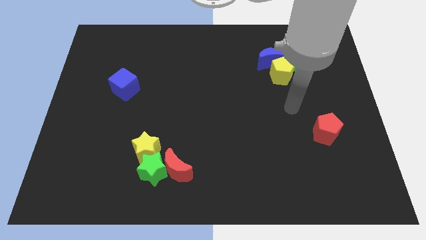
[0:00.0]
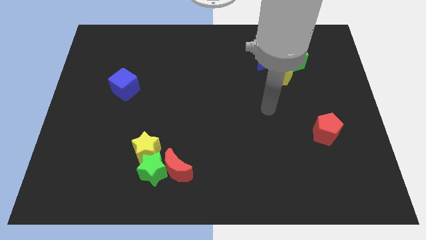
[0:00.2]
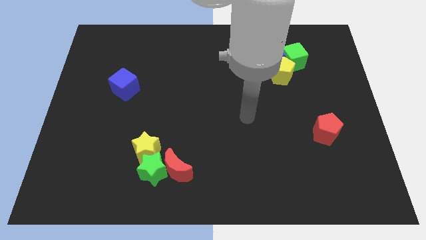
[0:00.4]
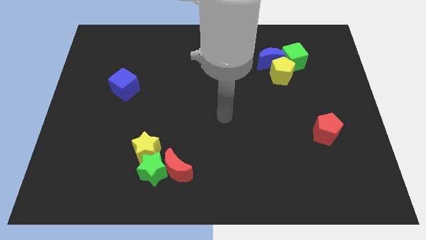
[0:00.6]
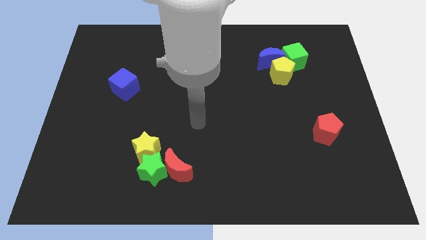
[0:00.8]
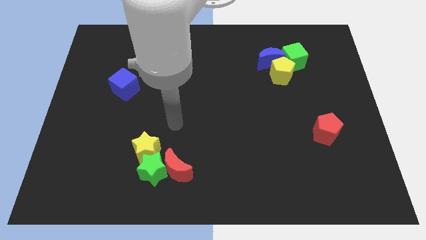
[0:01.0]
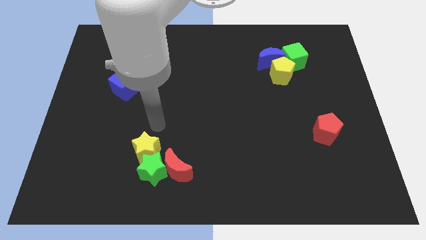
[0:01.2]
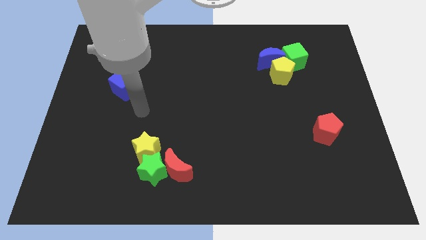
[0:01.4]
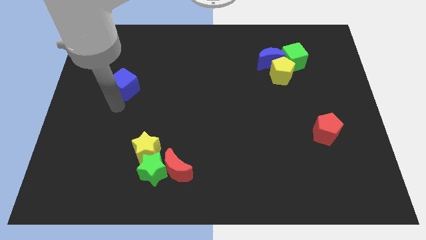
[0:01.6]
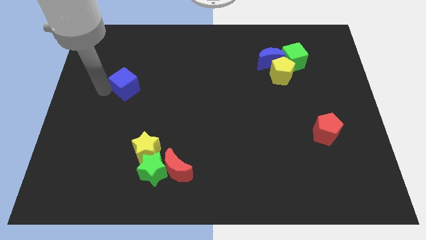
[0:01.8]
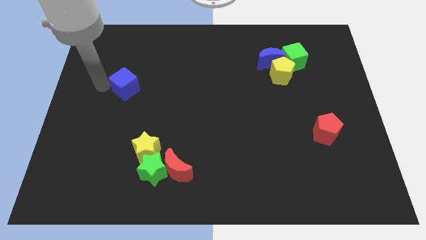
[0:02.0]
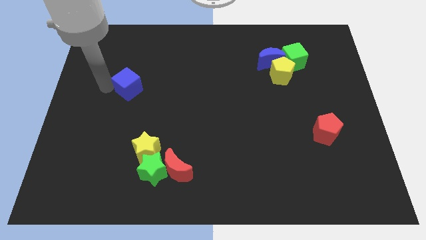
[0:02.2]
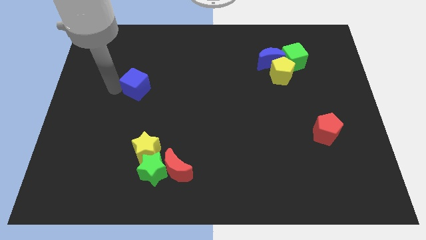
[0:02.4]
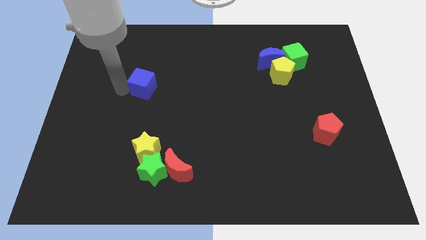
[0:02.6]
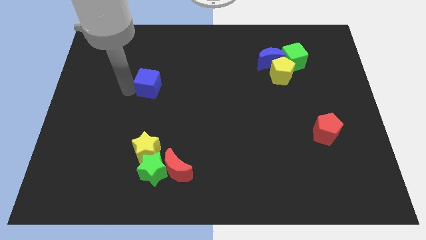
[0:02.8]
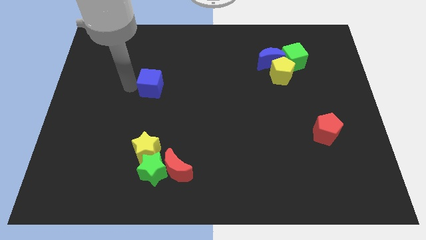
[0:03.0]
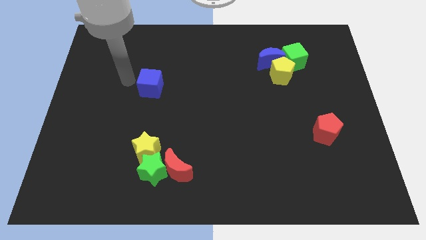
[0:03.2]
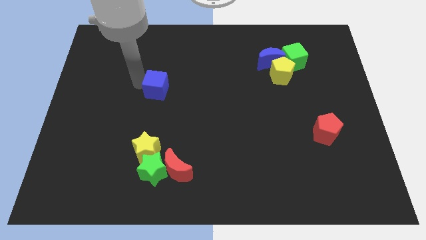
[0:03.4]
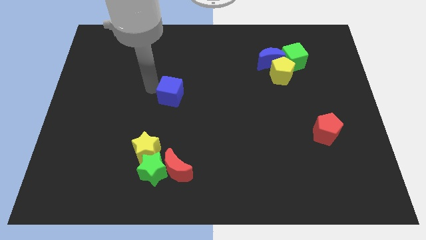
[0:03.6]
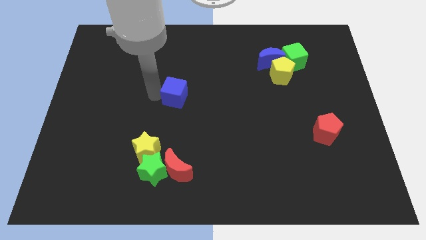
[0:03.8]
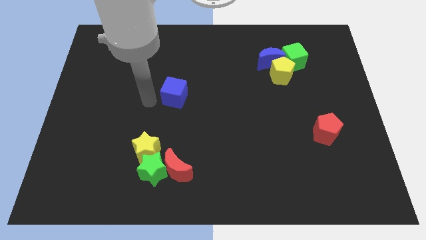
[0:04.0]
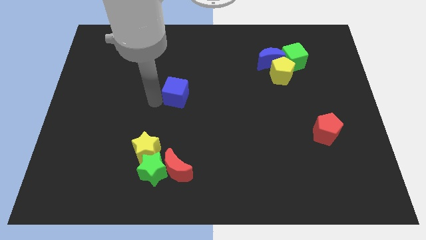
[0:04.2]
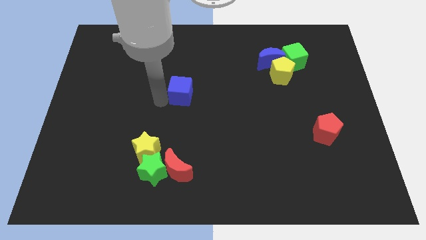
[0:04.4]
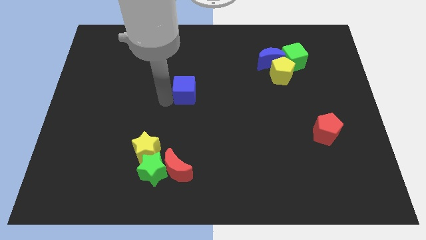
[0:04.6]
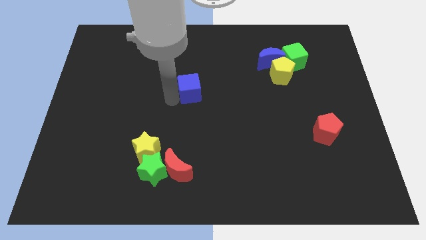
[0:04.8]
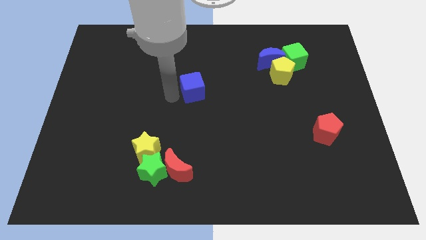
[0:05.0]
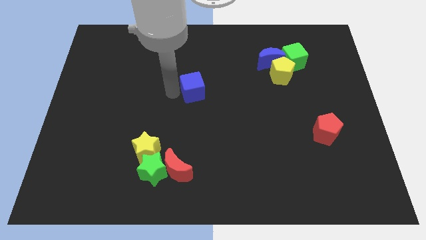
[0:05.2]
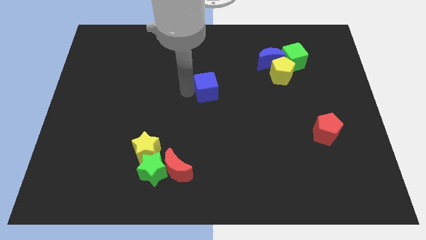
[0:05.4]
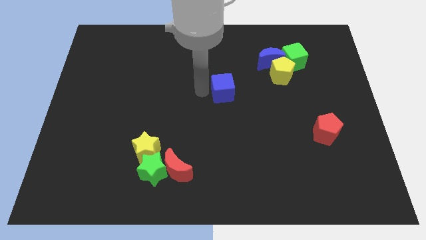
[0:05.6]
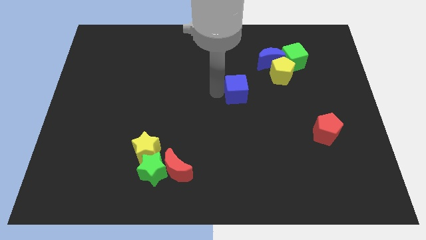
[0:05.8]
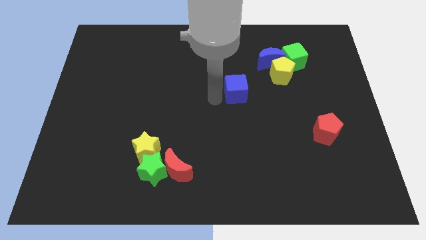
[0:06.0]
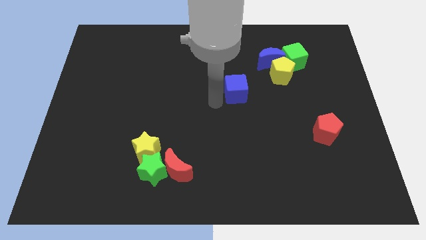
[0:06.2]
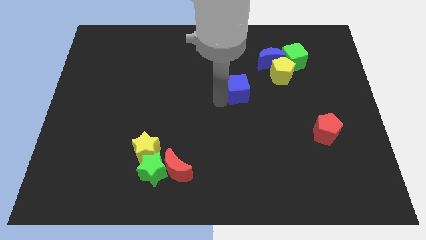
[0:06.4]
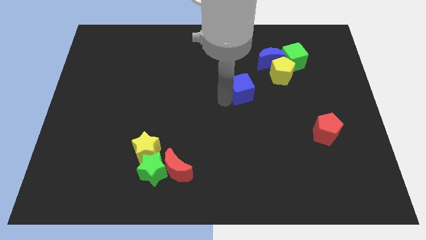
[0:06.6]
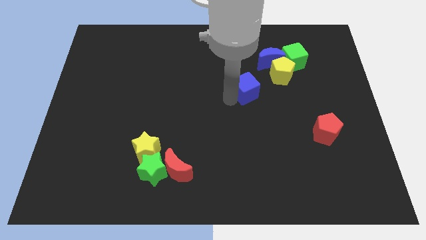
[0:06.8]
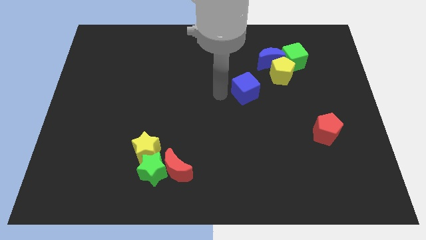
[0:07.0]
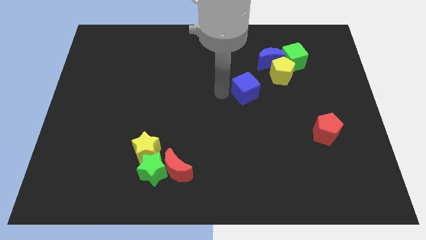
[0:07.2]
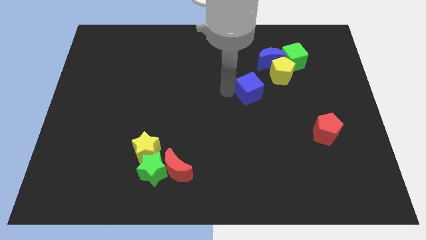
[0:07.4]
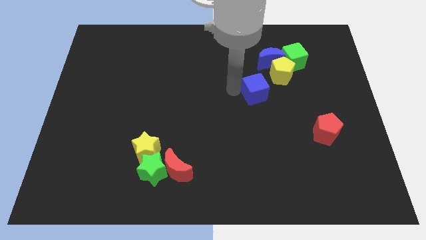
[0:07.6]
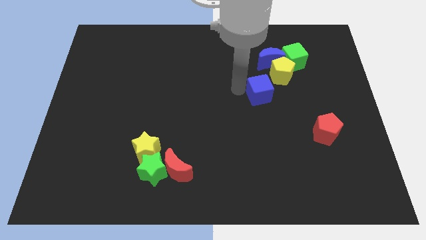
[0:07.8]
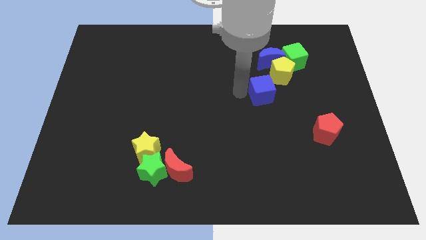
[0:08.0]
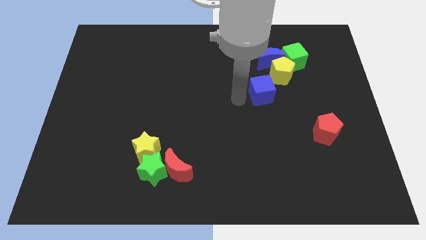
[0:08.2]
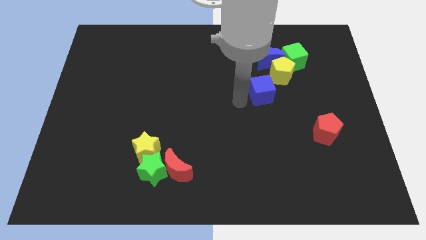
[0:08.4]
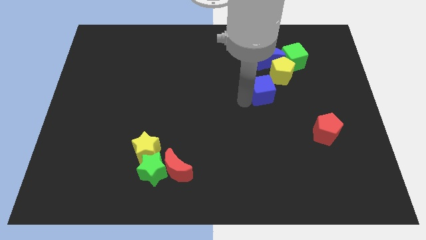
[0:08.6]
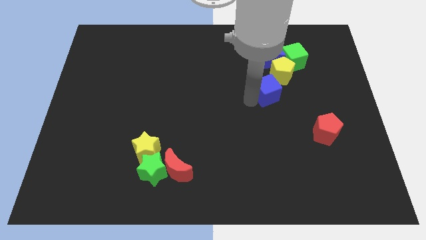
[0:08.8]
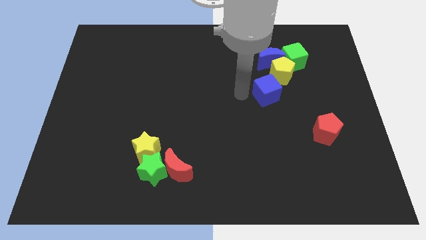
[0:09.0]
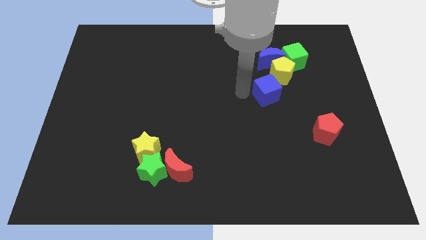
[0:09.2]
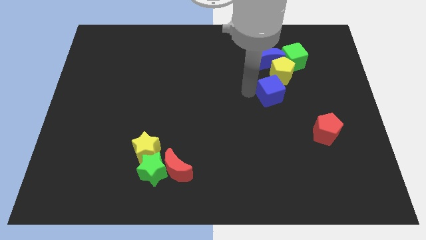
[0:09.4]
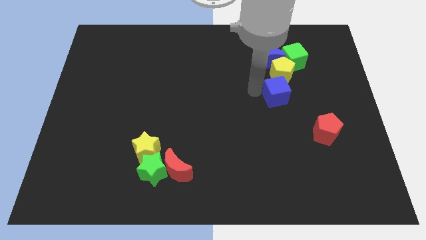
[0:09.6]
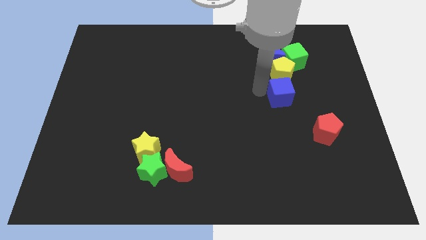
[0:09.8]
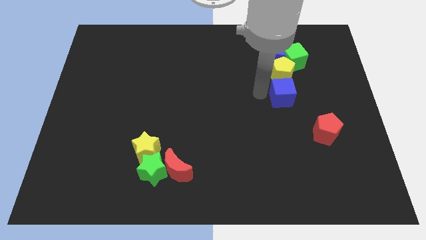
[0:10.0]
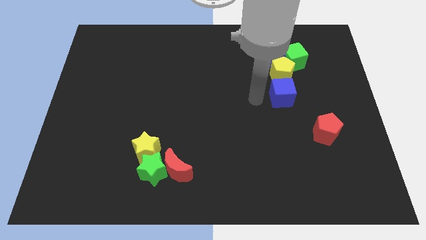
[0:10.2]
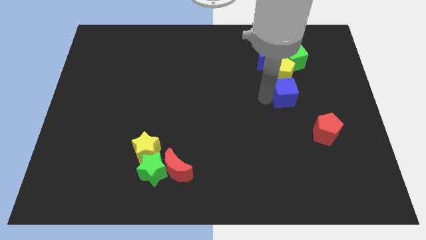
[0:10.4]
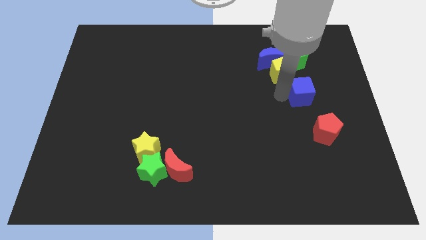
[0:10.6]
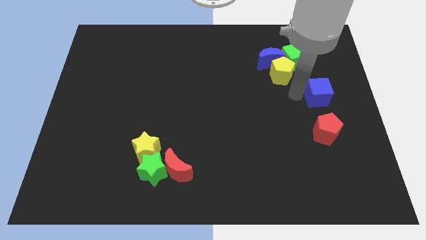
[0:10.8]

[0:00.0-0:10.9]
put the blue cube to the right side

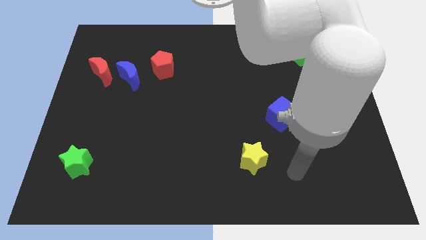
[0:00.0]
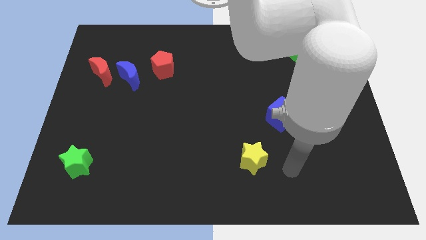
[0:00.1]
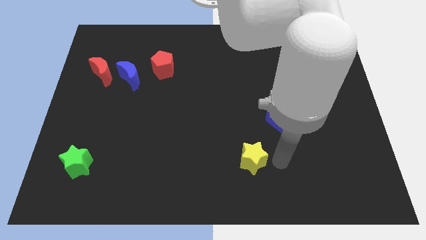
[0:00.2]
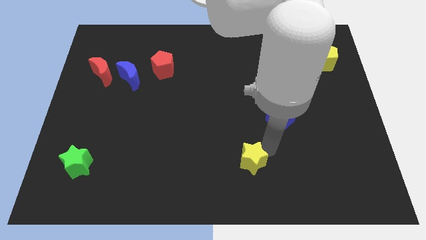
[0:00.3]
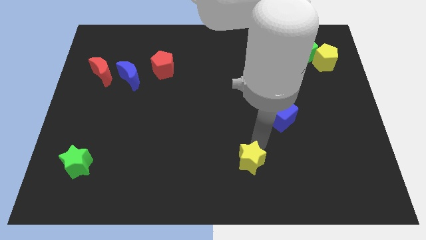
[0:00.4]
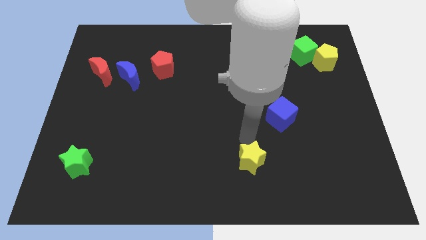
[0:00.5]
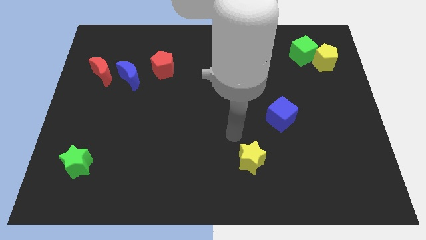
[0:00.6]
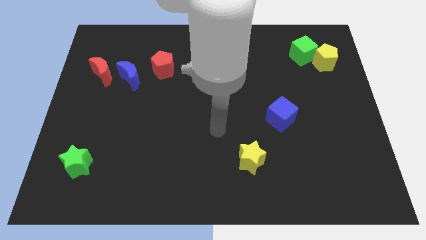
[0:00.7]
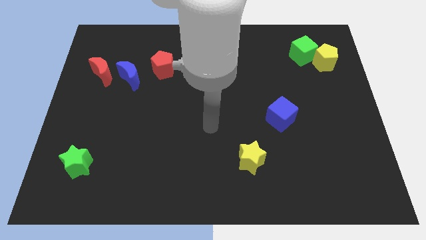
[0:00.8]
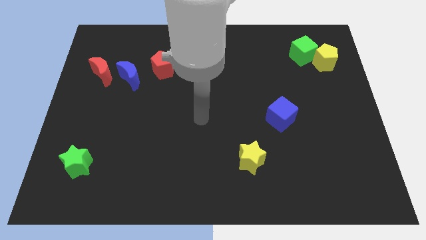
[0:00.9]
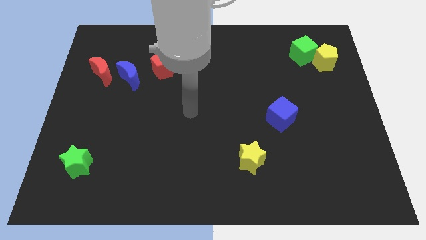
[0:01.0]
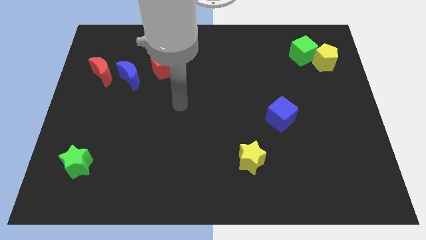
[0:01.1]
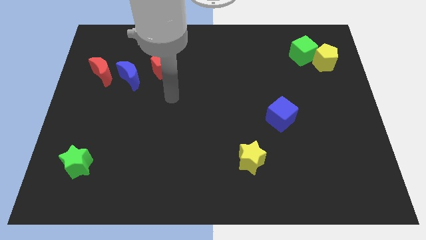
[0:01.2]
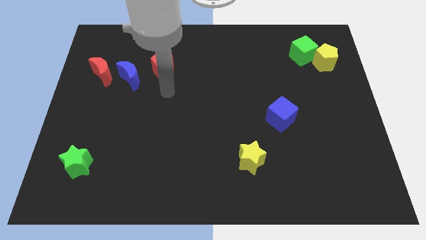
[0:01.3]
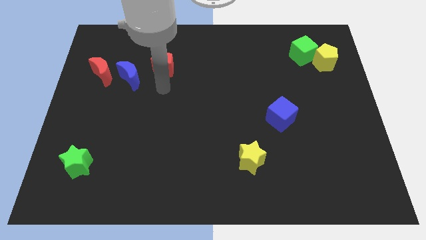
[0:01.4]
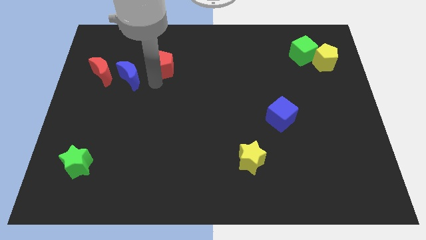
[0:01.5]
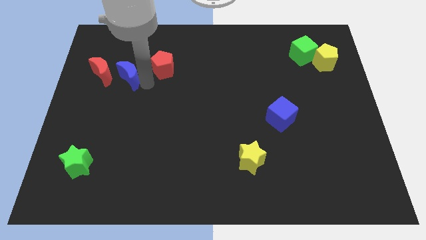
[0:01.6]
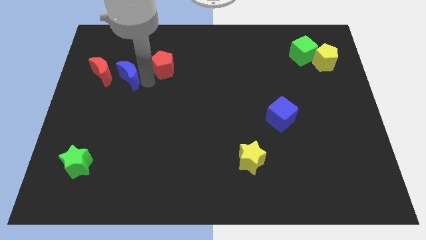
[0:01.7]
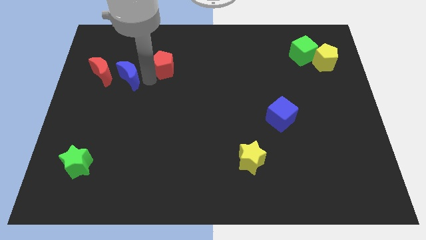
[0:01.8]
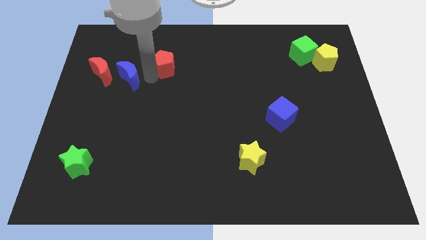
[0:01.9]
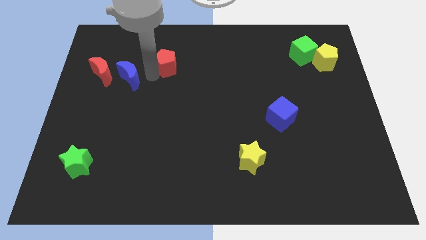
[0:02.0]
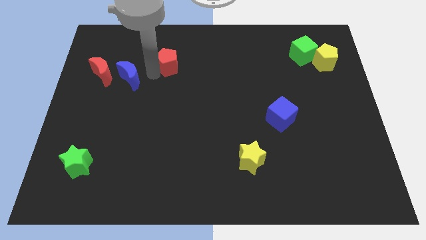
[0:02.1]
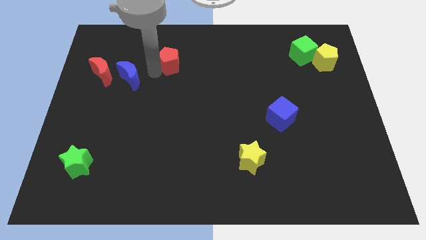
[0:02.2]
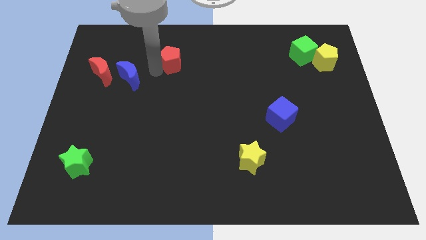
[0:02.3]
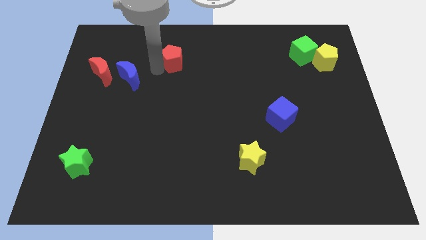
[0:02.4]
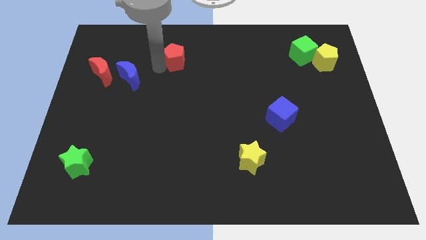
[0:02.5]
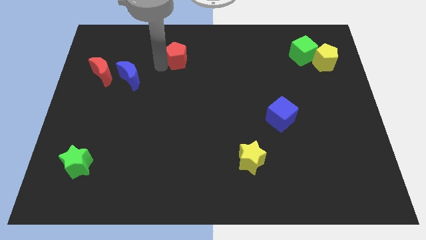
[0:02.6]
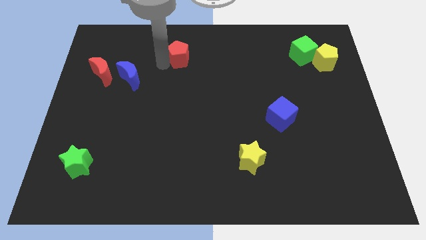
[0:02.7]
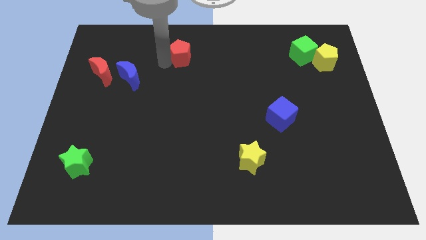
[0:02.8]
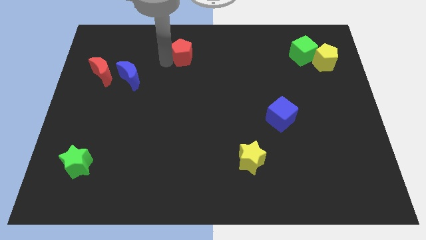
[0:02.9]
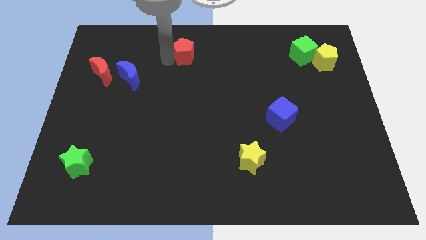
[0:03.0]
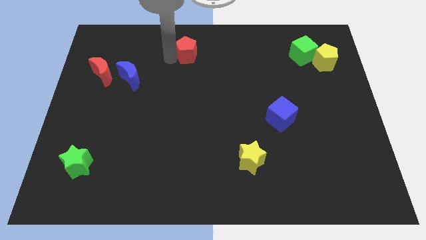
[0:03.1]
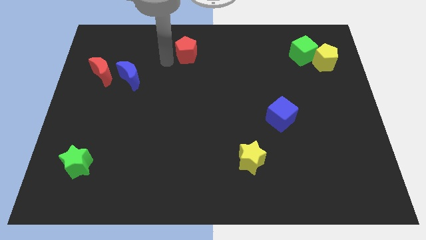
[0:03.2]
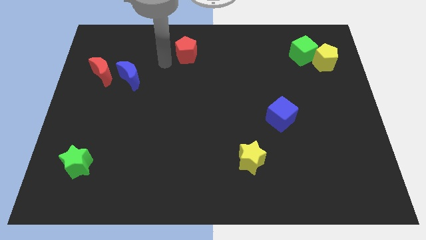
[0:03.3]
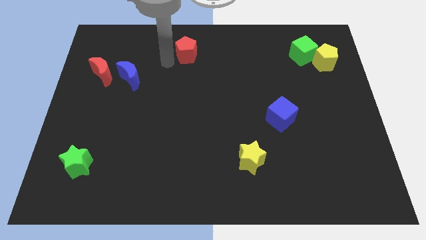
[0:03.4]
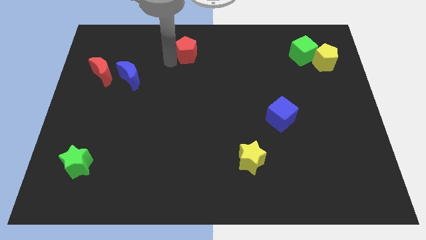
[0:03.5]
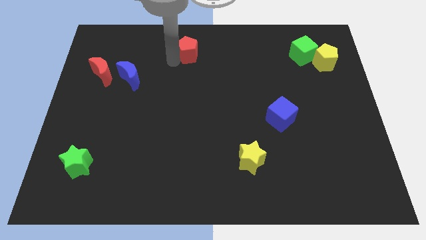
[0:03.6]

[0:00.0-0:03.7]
move the red pentagon to the top side
